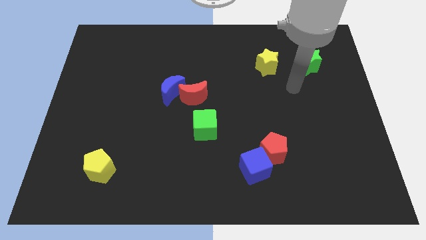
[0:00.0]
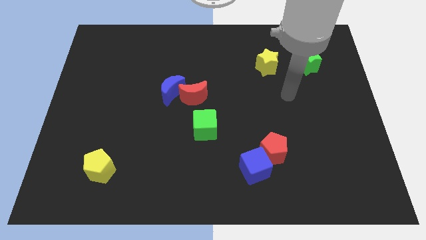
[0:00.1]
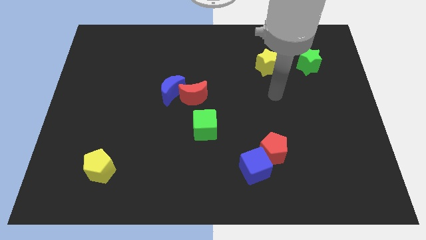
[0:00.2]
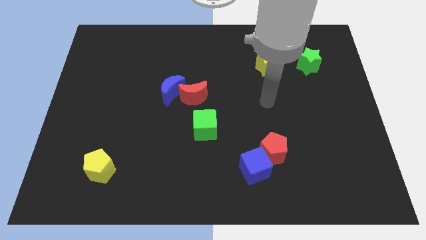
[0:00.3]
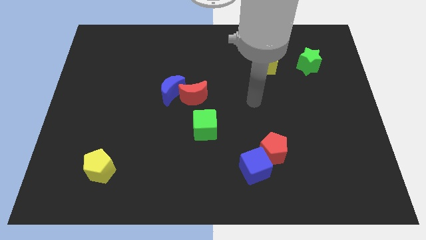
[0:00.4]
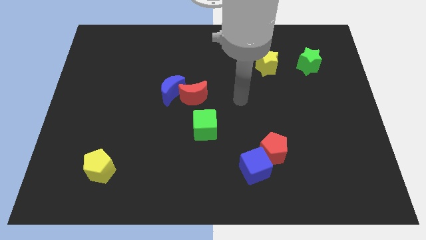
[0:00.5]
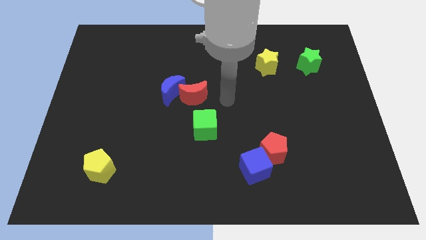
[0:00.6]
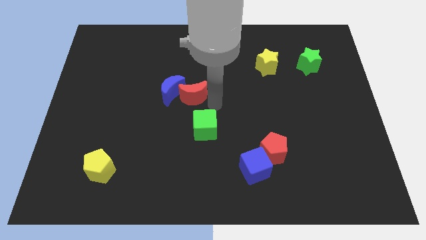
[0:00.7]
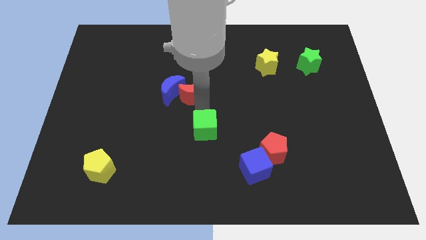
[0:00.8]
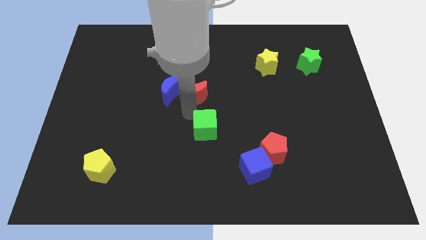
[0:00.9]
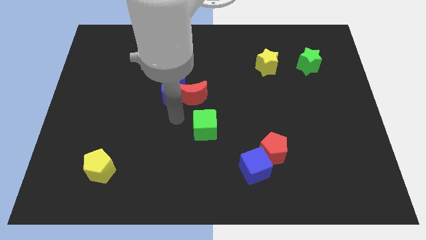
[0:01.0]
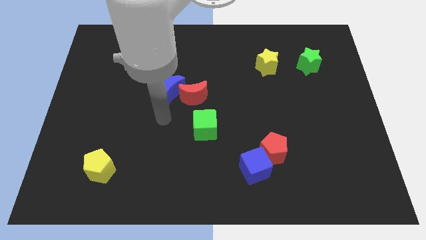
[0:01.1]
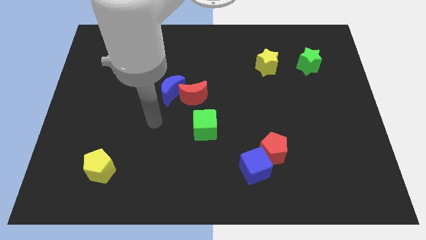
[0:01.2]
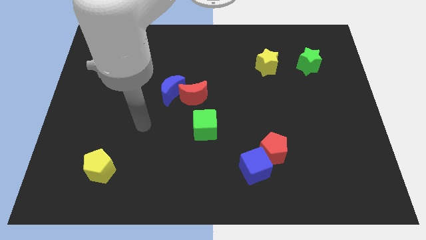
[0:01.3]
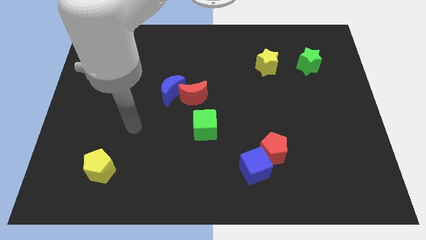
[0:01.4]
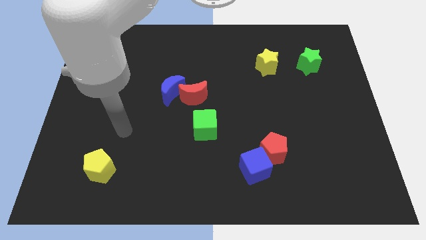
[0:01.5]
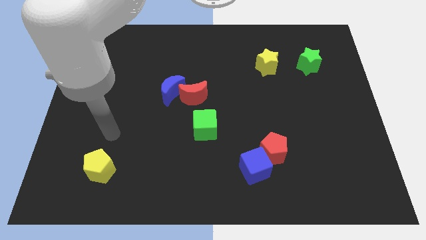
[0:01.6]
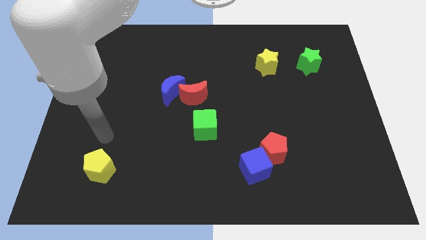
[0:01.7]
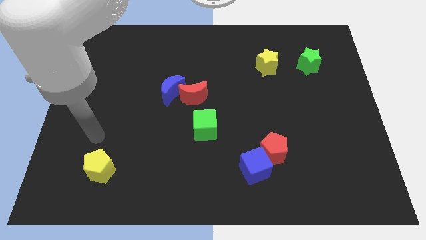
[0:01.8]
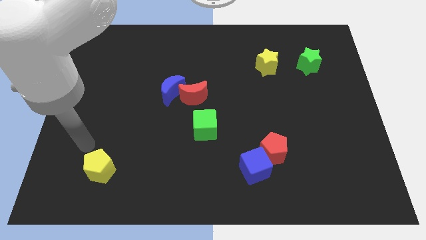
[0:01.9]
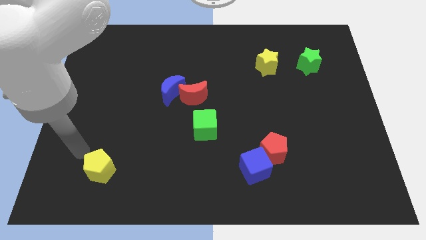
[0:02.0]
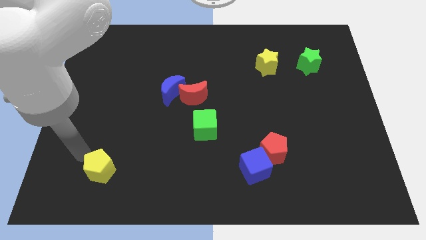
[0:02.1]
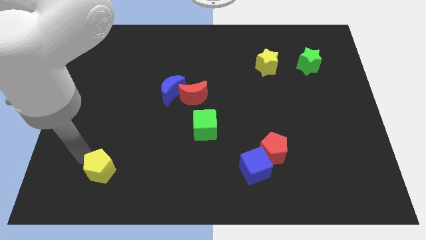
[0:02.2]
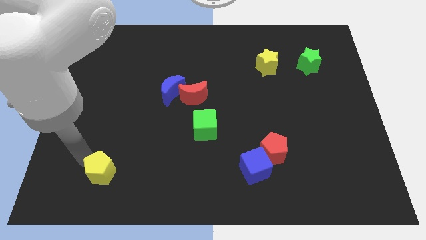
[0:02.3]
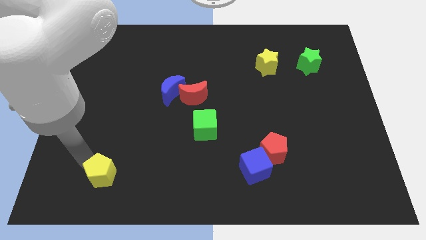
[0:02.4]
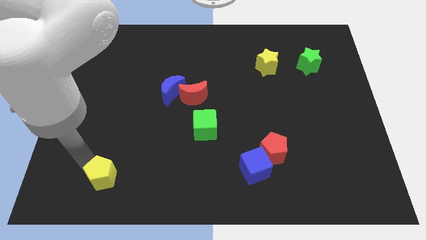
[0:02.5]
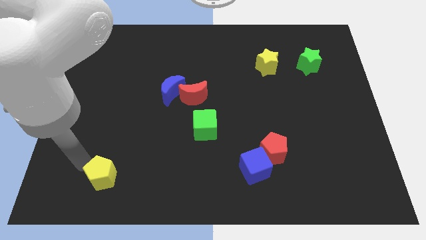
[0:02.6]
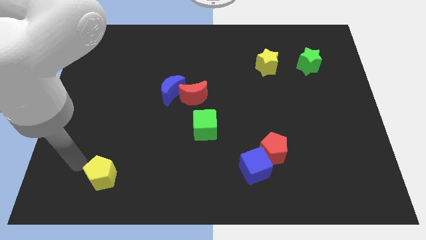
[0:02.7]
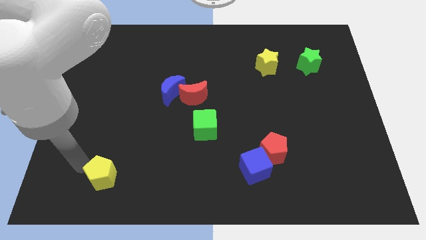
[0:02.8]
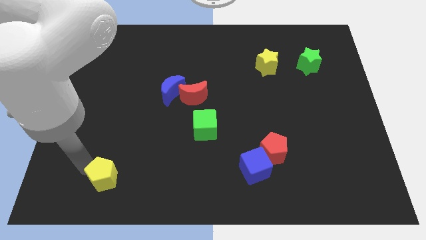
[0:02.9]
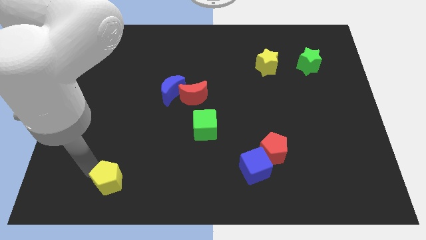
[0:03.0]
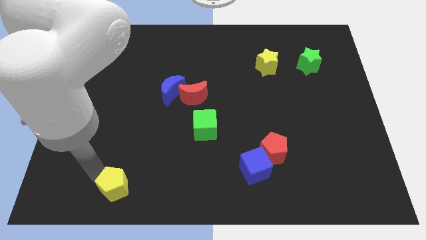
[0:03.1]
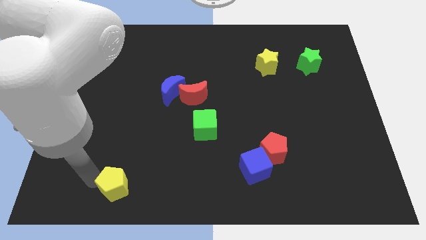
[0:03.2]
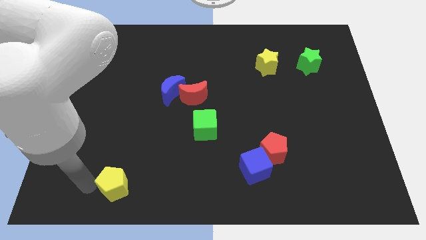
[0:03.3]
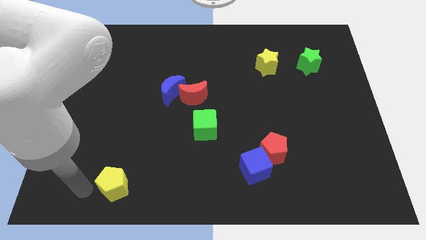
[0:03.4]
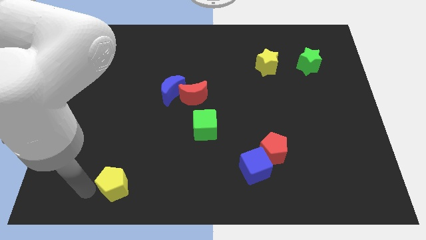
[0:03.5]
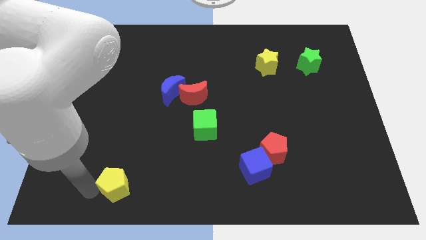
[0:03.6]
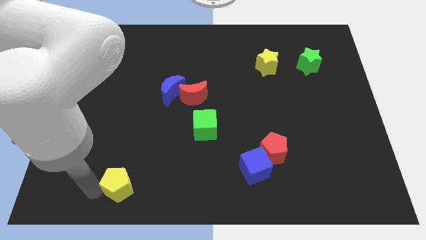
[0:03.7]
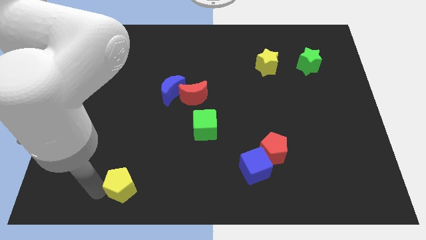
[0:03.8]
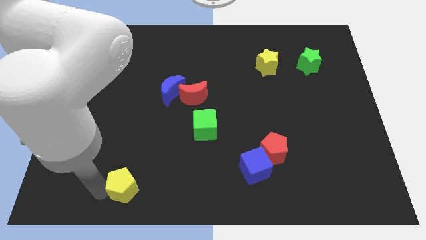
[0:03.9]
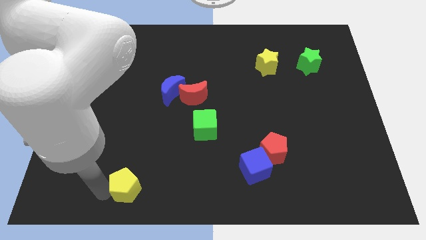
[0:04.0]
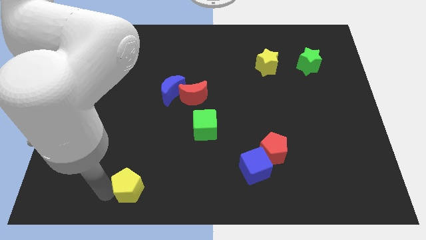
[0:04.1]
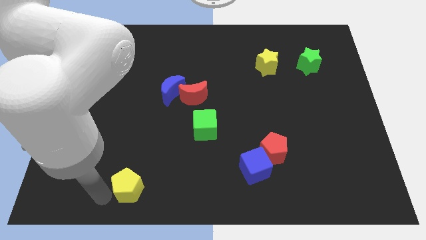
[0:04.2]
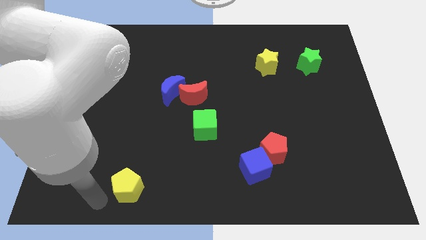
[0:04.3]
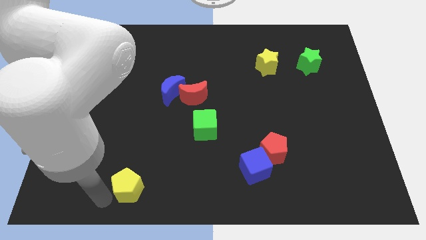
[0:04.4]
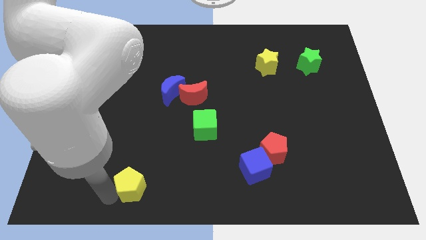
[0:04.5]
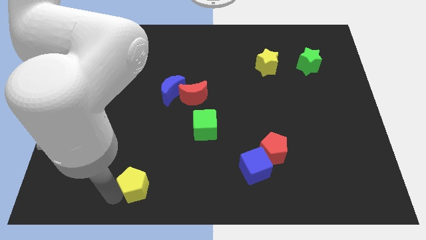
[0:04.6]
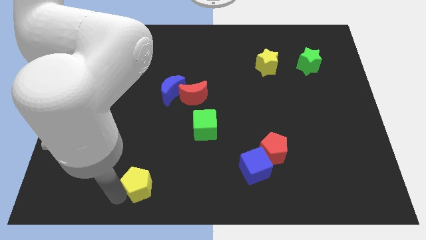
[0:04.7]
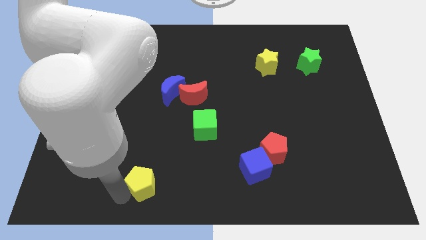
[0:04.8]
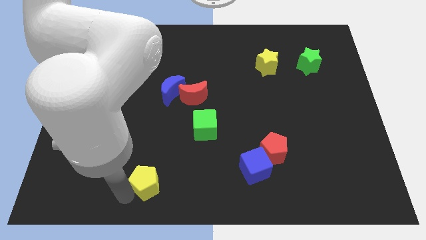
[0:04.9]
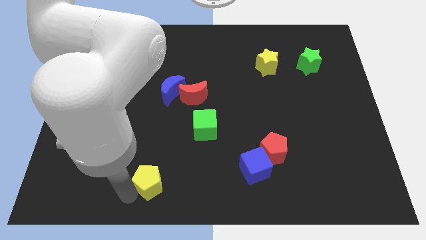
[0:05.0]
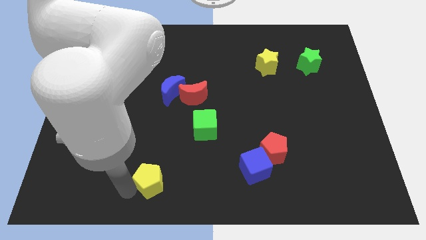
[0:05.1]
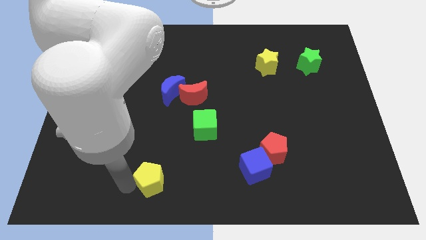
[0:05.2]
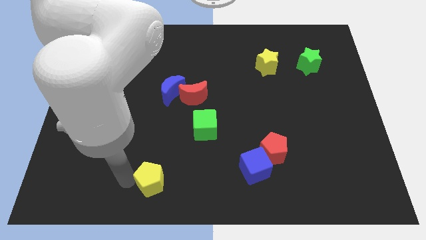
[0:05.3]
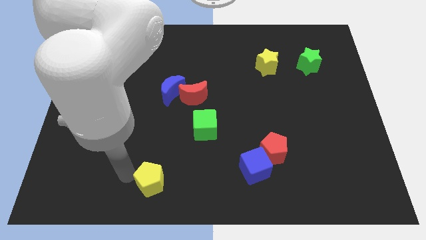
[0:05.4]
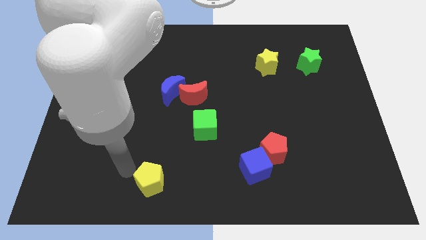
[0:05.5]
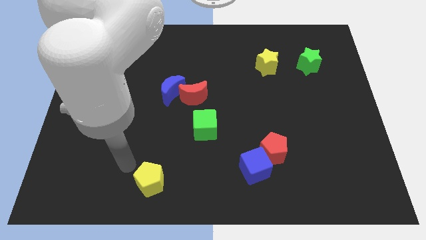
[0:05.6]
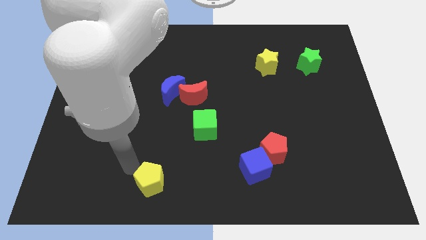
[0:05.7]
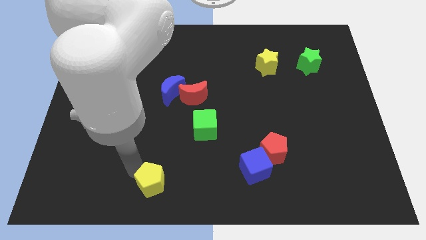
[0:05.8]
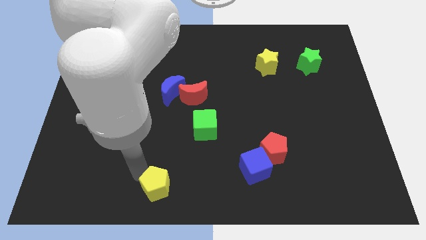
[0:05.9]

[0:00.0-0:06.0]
put the yellow pentagon to the bottom

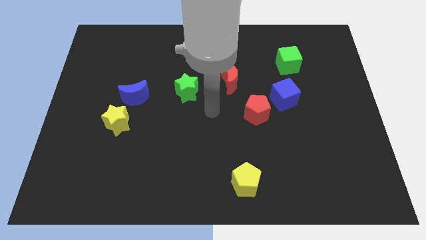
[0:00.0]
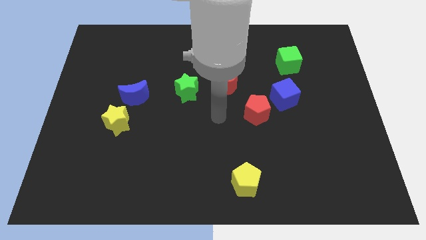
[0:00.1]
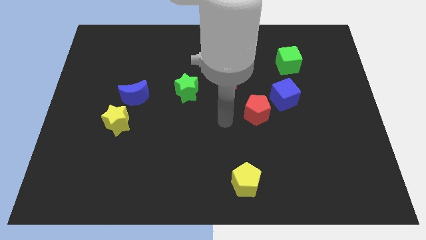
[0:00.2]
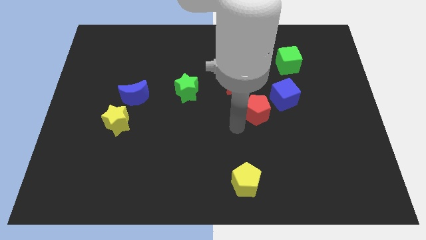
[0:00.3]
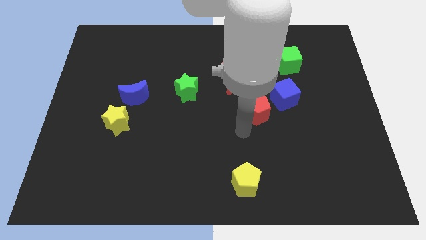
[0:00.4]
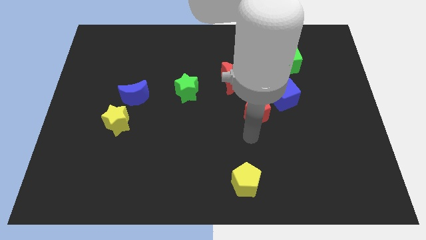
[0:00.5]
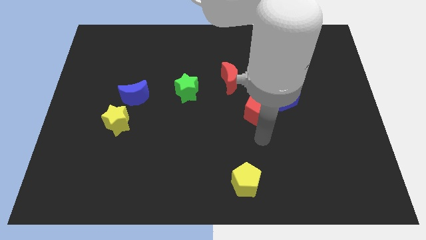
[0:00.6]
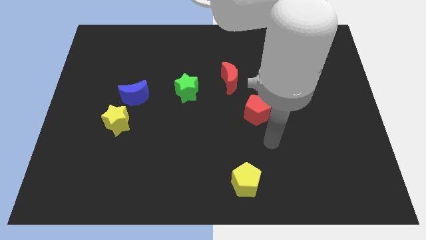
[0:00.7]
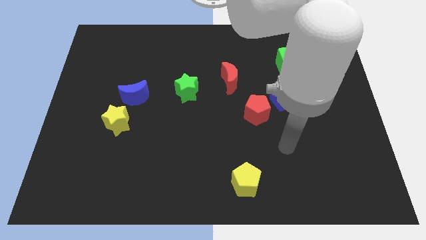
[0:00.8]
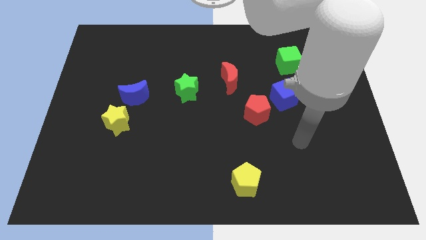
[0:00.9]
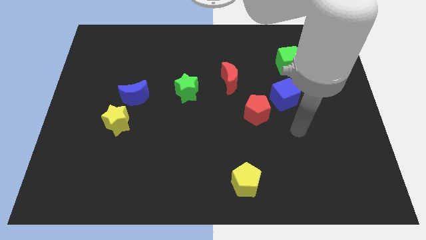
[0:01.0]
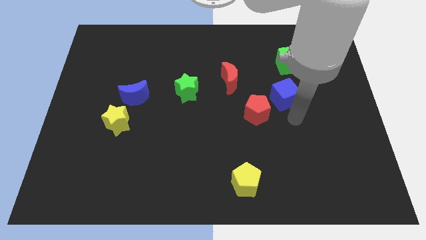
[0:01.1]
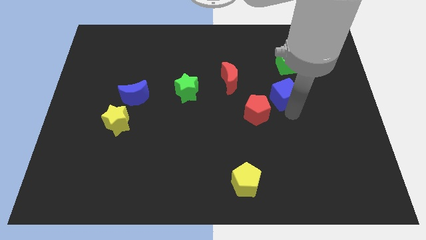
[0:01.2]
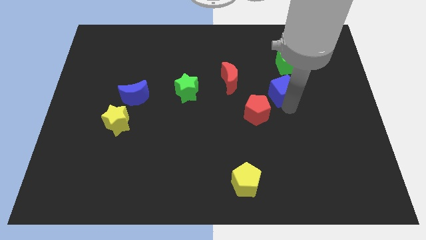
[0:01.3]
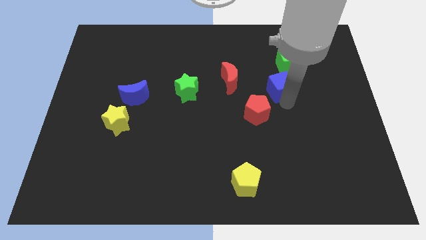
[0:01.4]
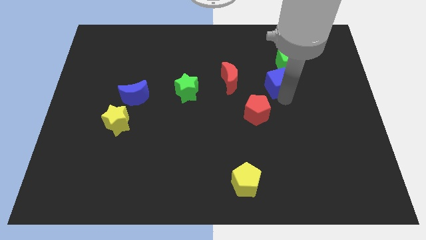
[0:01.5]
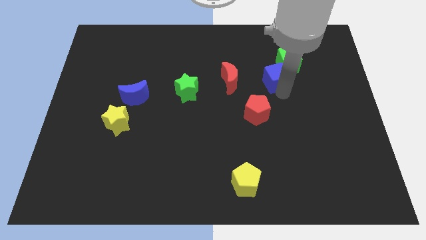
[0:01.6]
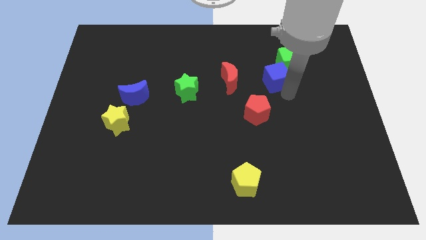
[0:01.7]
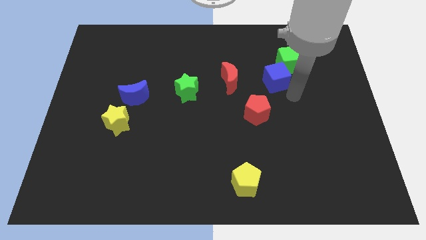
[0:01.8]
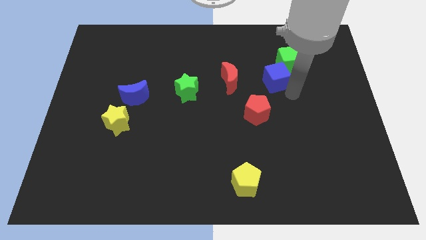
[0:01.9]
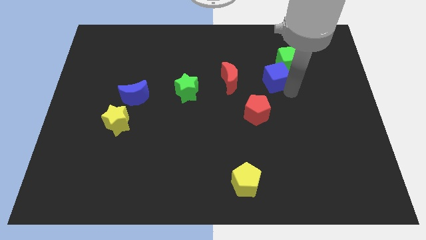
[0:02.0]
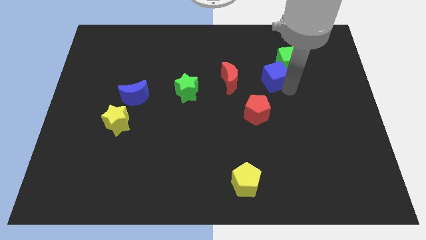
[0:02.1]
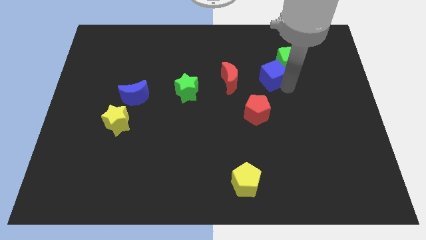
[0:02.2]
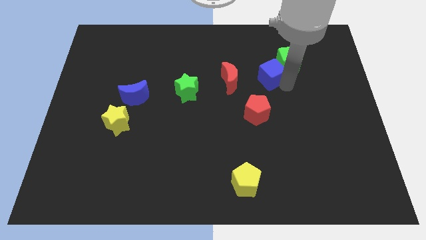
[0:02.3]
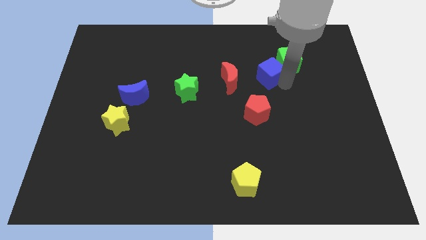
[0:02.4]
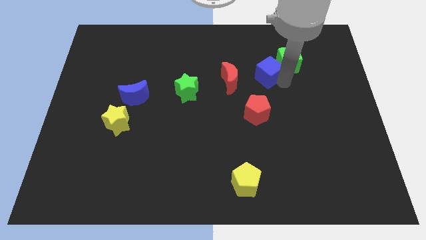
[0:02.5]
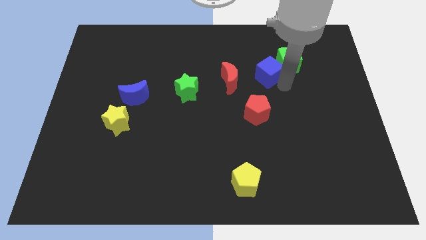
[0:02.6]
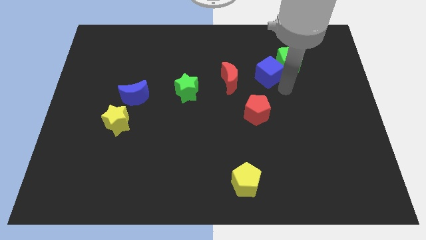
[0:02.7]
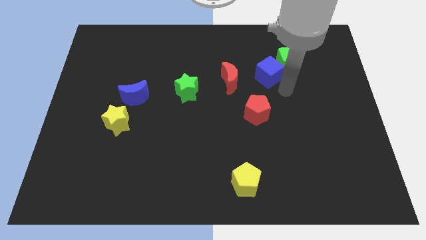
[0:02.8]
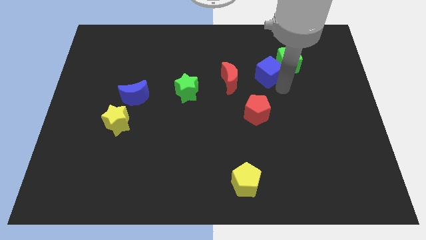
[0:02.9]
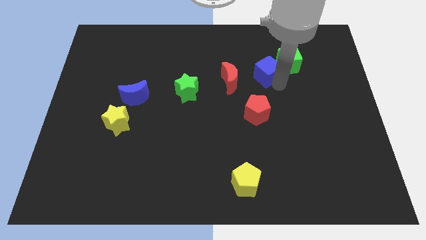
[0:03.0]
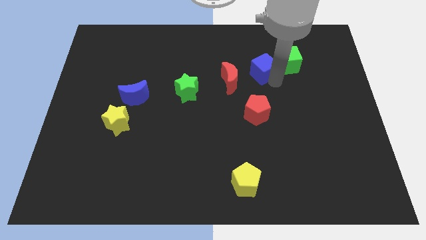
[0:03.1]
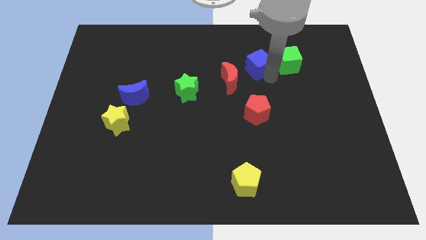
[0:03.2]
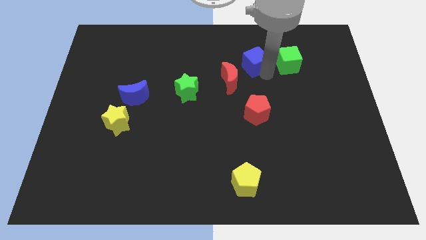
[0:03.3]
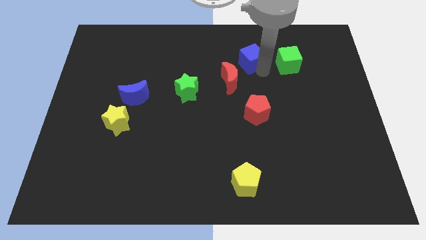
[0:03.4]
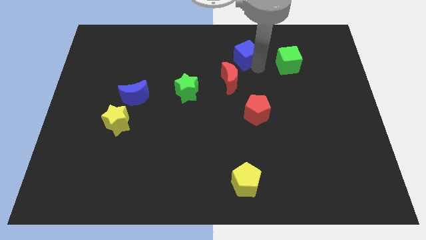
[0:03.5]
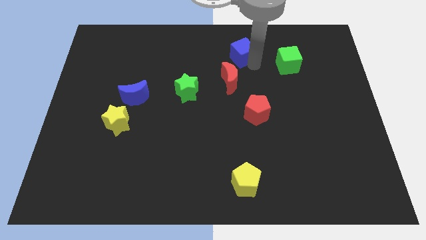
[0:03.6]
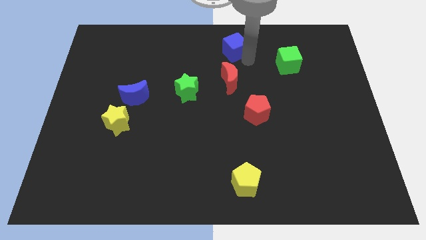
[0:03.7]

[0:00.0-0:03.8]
push the blue cube to the top side
